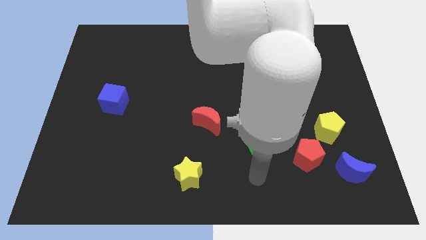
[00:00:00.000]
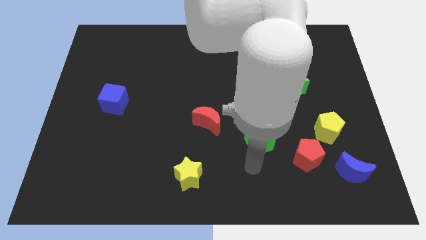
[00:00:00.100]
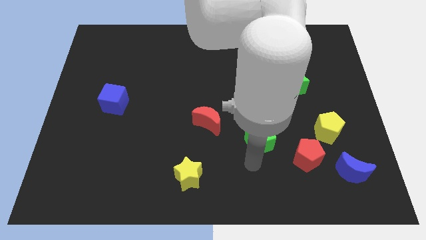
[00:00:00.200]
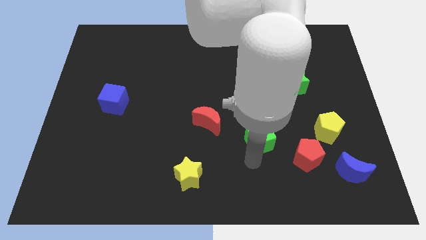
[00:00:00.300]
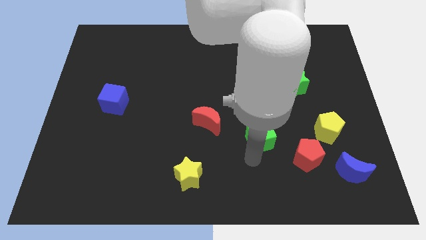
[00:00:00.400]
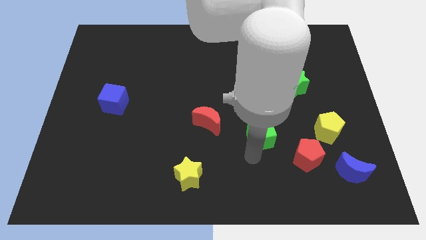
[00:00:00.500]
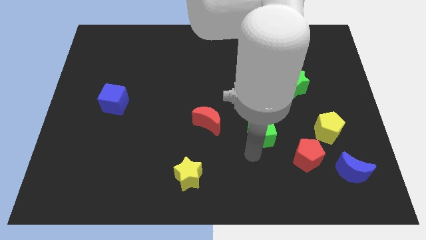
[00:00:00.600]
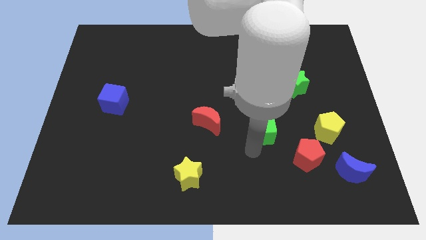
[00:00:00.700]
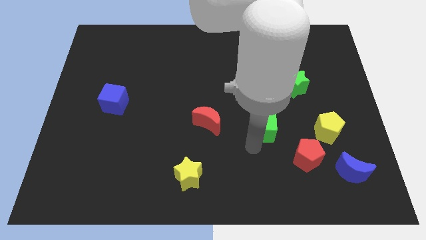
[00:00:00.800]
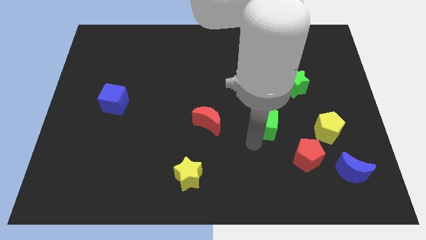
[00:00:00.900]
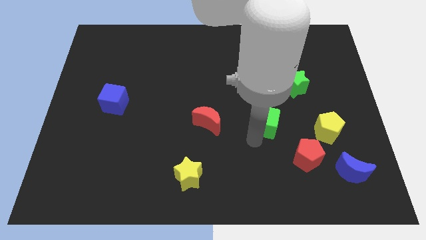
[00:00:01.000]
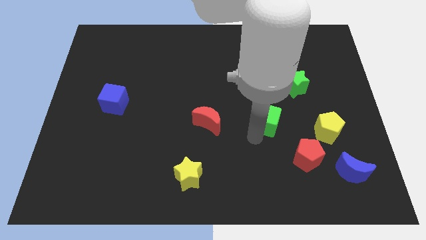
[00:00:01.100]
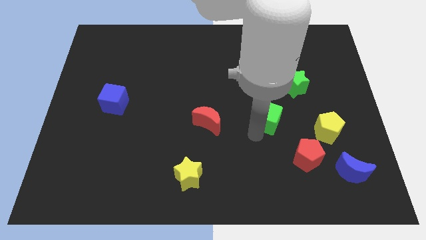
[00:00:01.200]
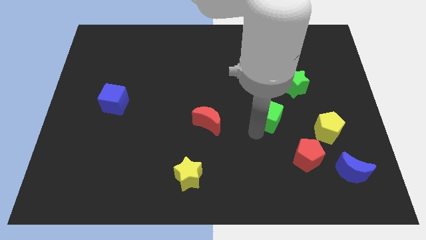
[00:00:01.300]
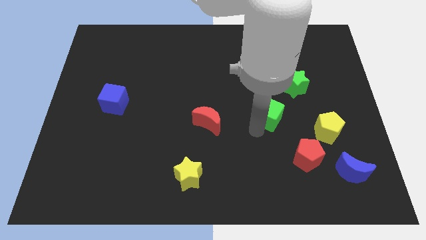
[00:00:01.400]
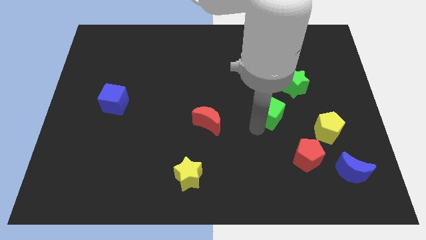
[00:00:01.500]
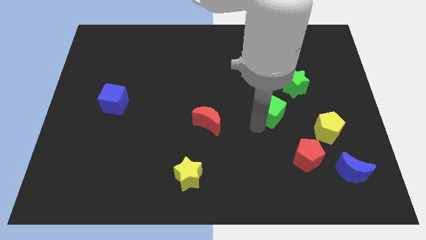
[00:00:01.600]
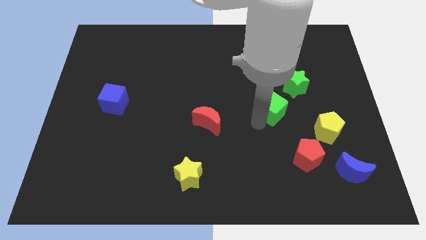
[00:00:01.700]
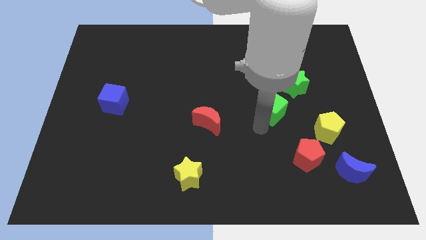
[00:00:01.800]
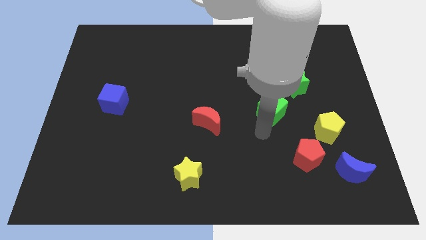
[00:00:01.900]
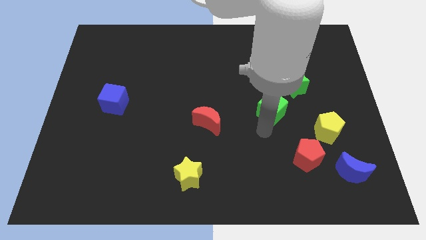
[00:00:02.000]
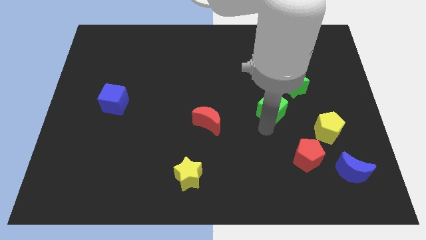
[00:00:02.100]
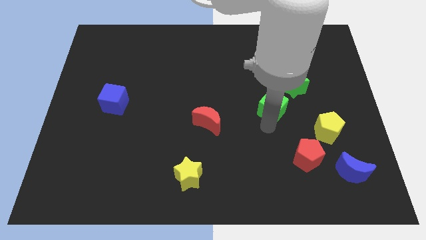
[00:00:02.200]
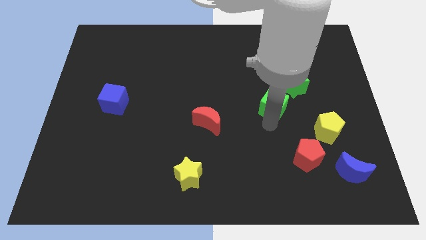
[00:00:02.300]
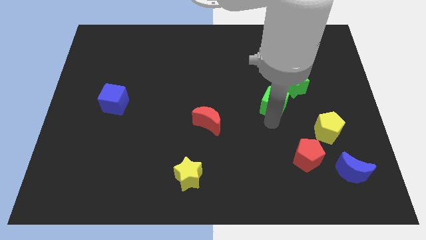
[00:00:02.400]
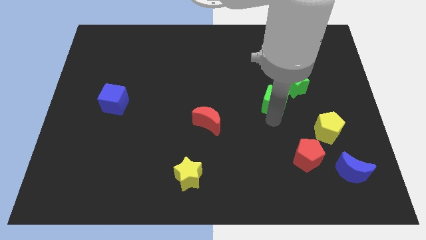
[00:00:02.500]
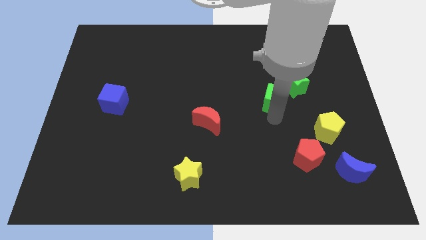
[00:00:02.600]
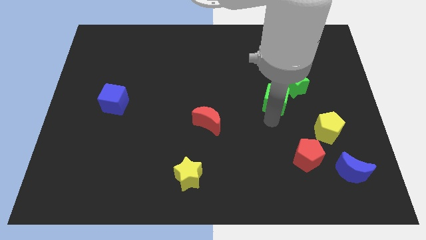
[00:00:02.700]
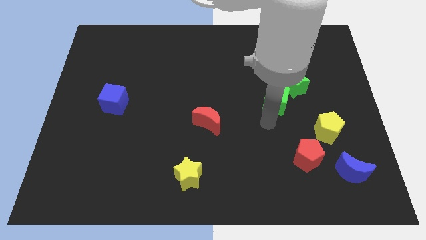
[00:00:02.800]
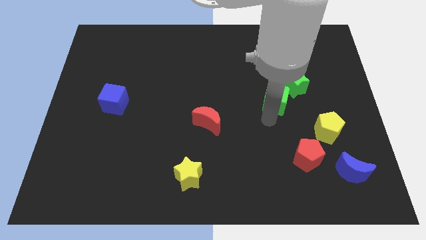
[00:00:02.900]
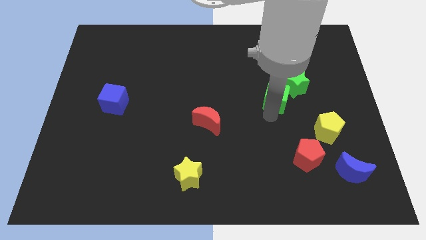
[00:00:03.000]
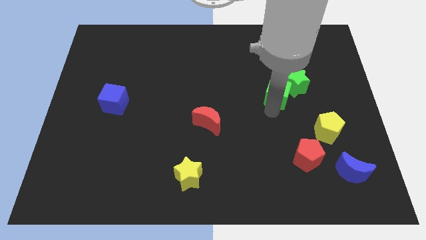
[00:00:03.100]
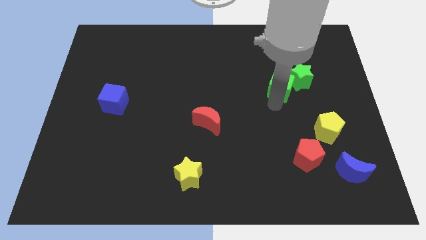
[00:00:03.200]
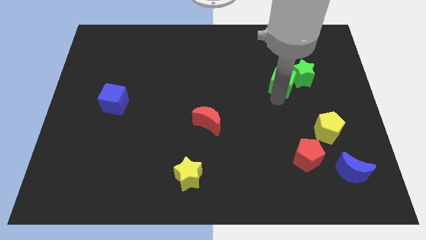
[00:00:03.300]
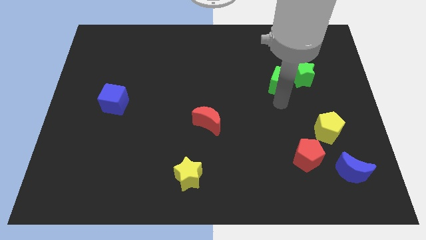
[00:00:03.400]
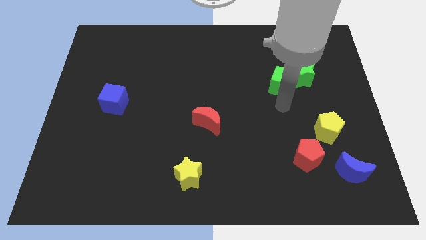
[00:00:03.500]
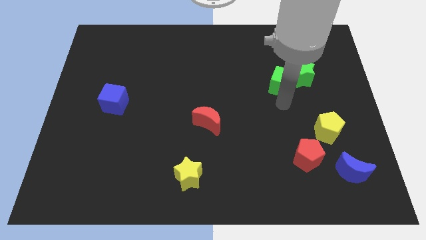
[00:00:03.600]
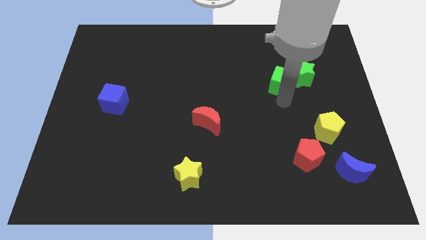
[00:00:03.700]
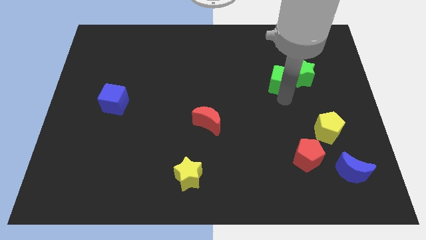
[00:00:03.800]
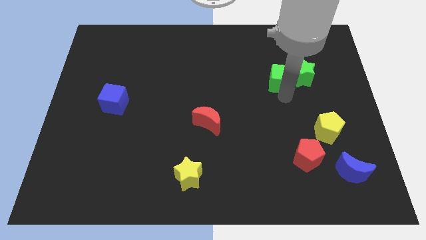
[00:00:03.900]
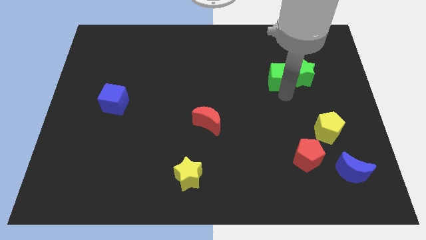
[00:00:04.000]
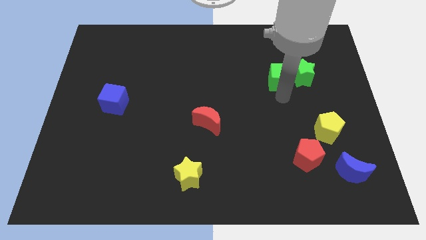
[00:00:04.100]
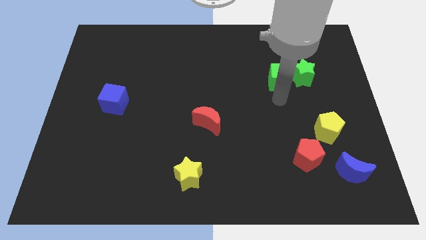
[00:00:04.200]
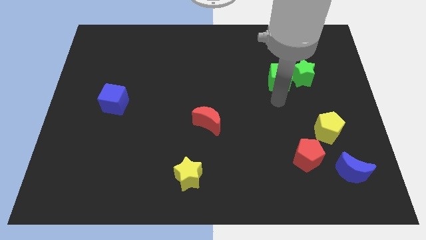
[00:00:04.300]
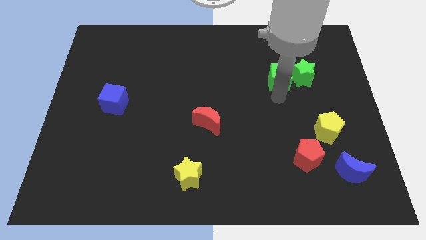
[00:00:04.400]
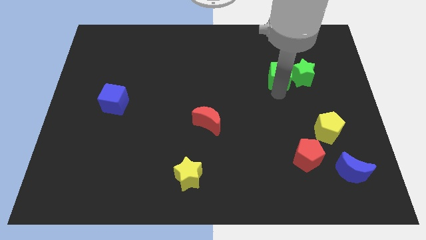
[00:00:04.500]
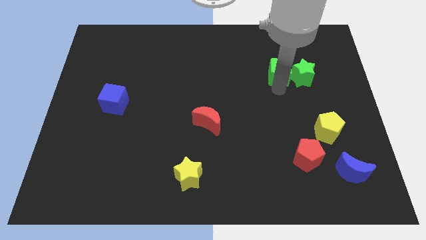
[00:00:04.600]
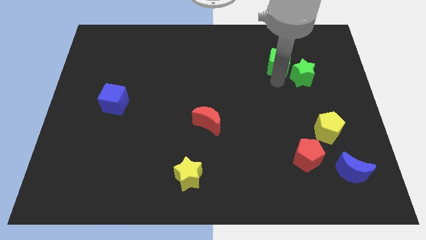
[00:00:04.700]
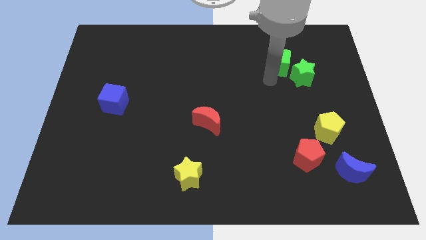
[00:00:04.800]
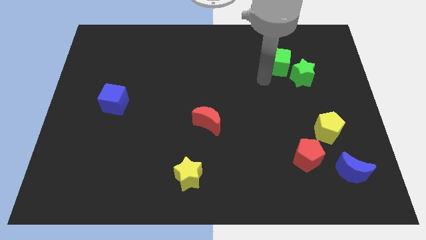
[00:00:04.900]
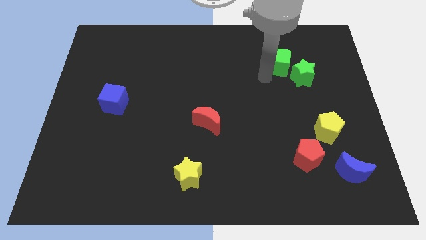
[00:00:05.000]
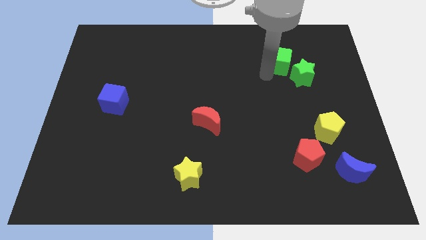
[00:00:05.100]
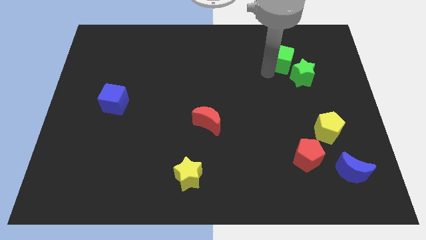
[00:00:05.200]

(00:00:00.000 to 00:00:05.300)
move the green cube to the top side of the green star

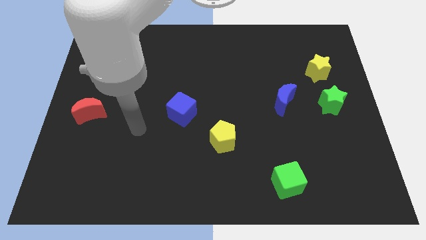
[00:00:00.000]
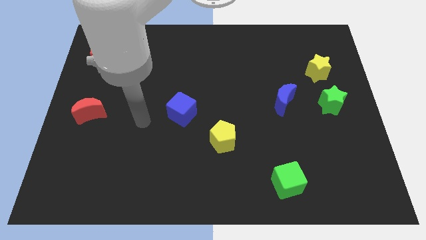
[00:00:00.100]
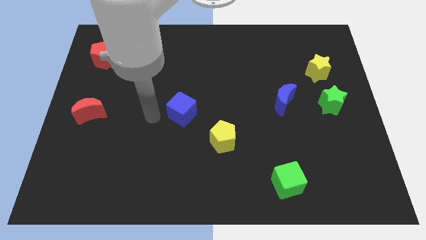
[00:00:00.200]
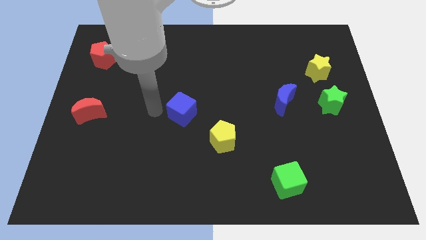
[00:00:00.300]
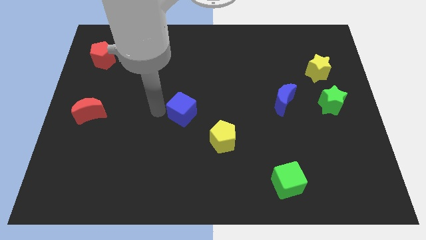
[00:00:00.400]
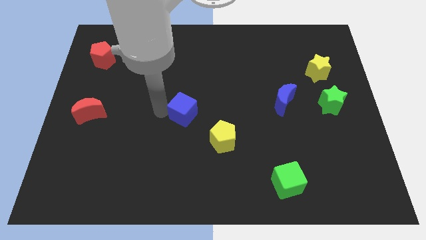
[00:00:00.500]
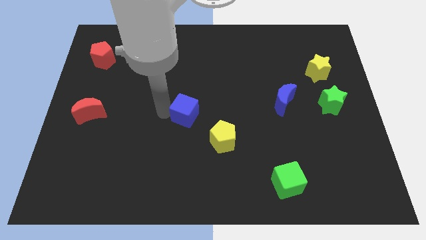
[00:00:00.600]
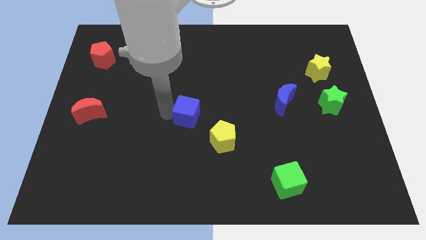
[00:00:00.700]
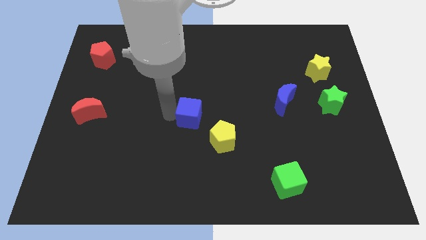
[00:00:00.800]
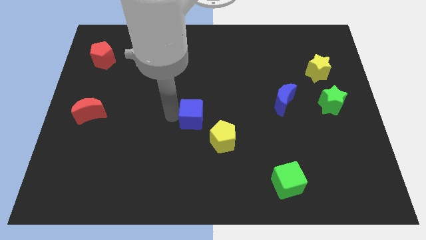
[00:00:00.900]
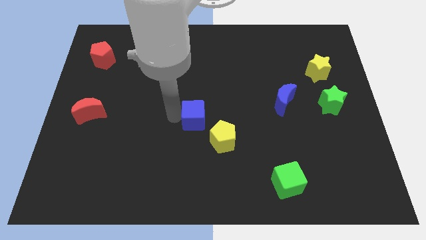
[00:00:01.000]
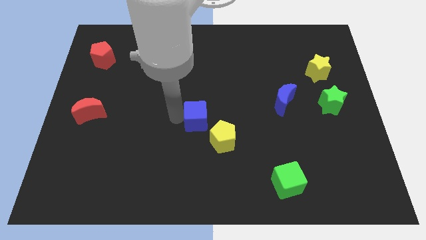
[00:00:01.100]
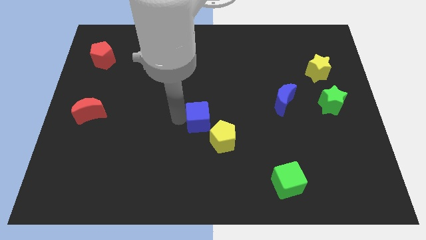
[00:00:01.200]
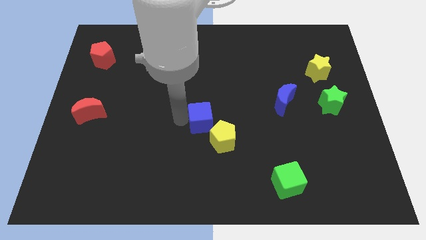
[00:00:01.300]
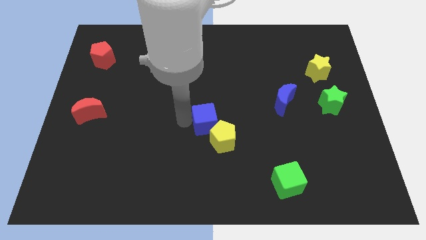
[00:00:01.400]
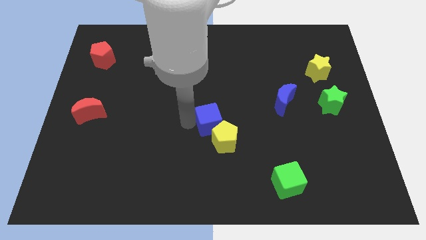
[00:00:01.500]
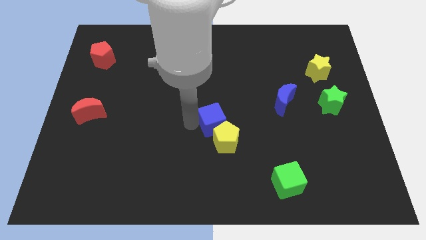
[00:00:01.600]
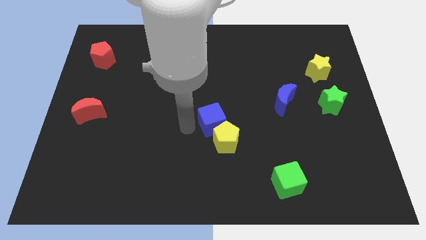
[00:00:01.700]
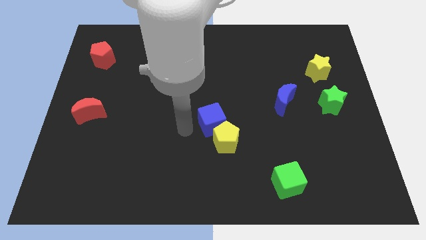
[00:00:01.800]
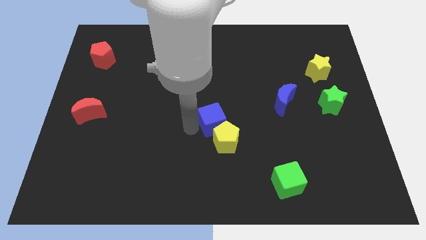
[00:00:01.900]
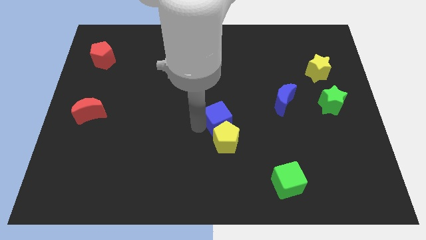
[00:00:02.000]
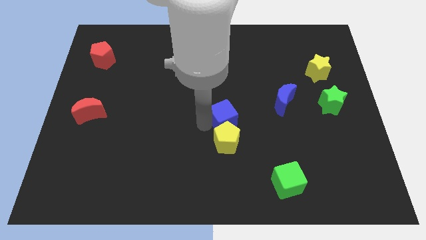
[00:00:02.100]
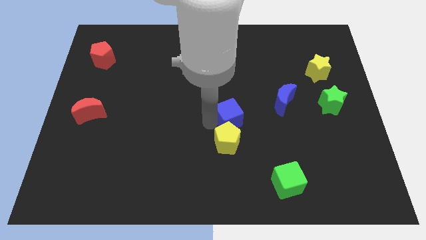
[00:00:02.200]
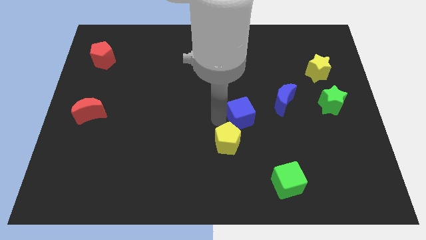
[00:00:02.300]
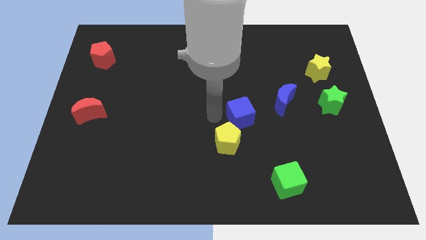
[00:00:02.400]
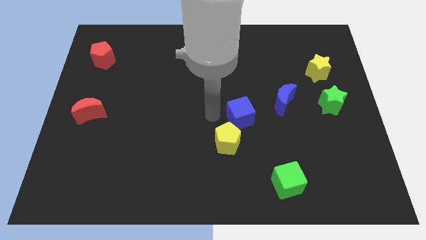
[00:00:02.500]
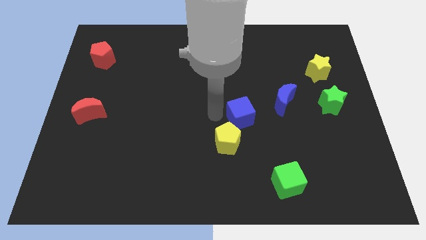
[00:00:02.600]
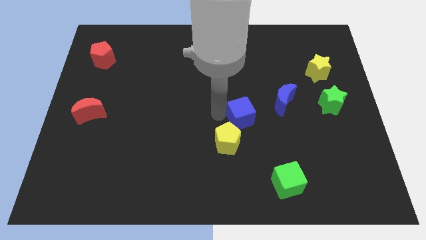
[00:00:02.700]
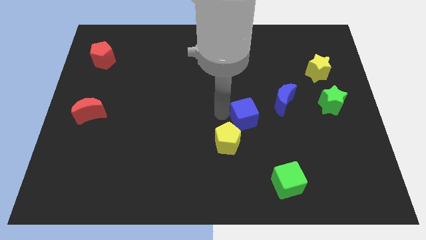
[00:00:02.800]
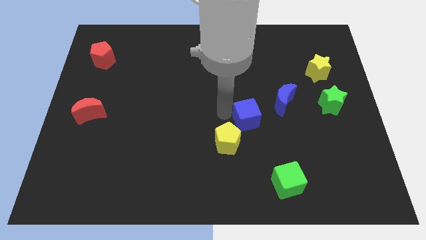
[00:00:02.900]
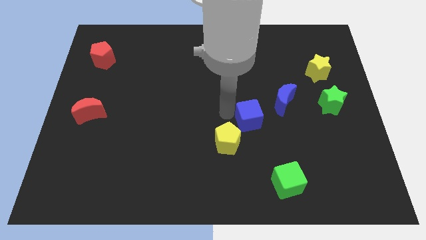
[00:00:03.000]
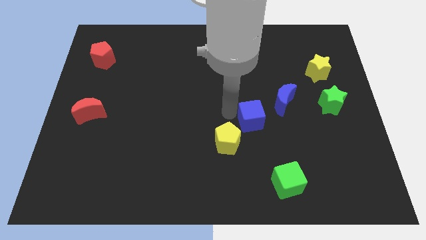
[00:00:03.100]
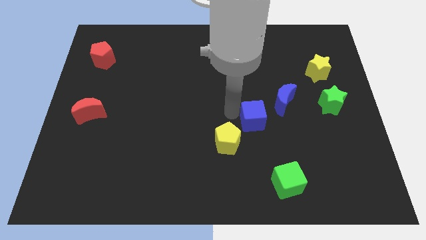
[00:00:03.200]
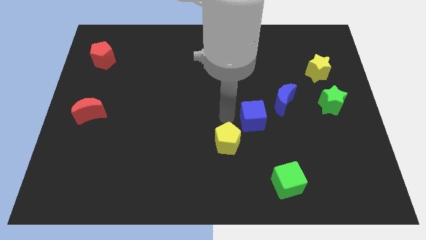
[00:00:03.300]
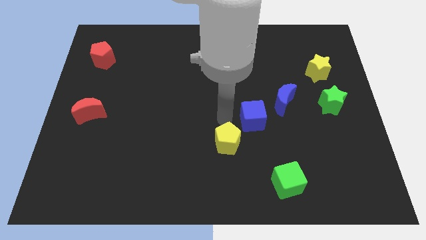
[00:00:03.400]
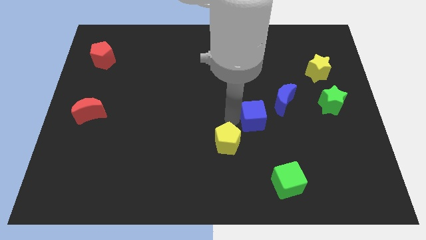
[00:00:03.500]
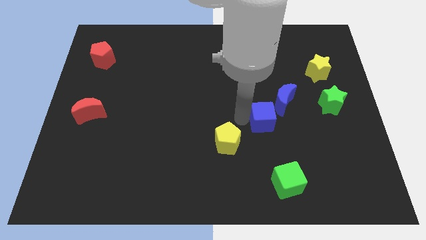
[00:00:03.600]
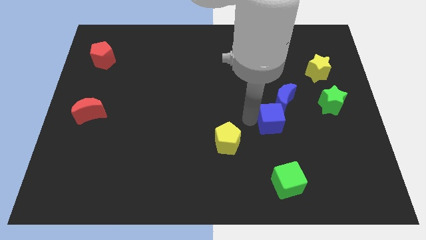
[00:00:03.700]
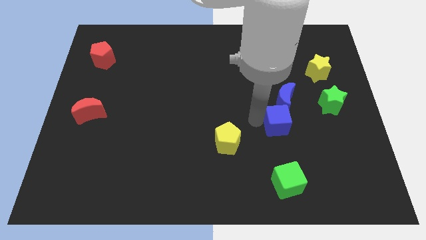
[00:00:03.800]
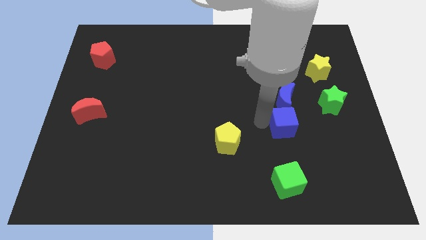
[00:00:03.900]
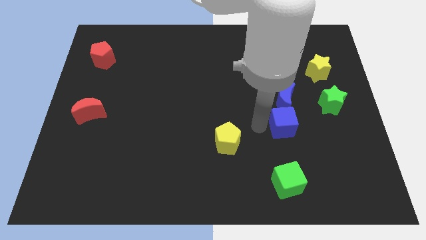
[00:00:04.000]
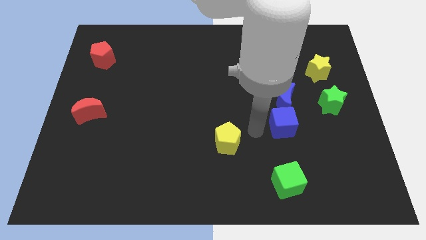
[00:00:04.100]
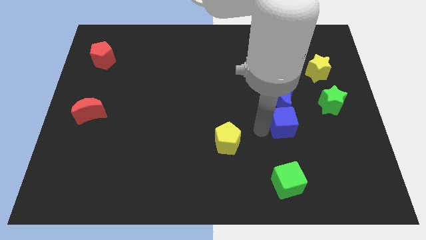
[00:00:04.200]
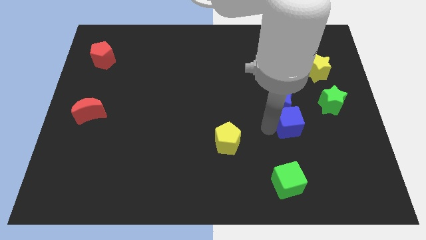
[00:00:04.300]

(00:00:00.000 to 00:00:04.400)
put the blue cube to the bottom right of the blue moon
